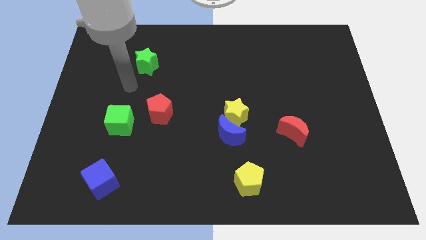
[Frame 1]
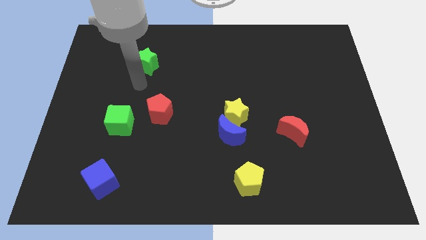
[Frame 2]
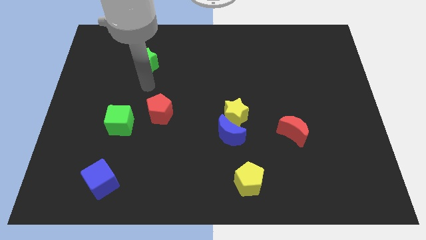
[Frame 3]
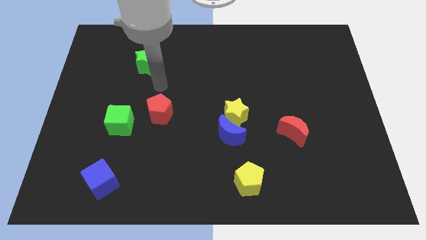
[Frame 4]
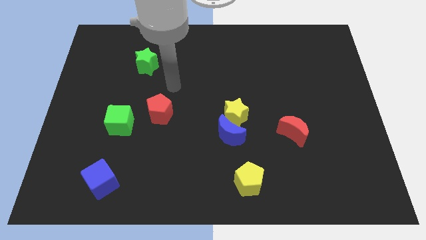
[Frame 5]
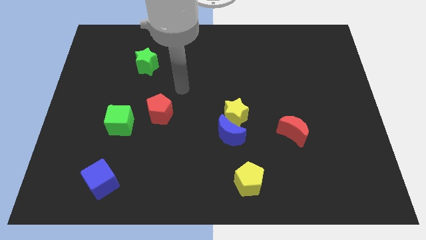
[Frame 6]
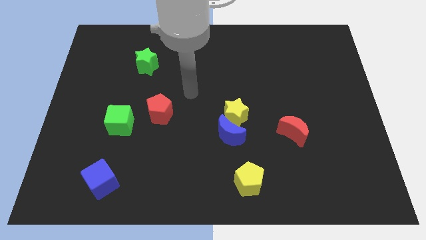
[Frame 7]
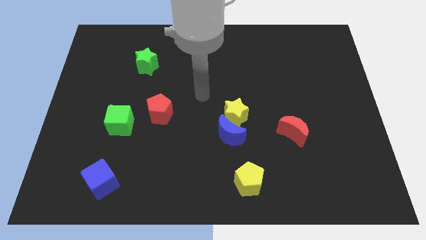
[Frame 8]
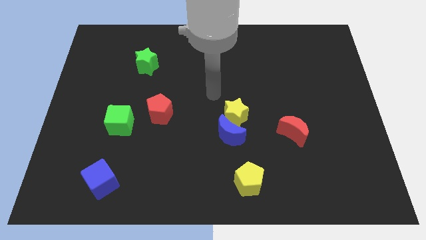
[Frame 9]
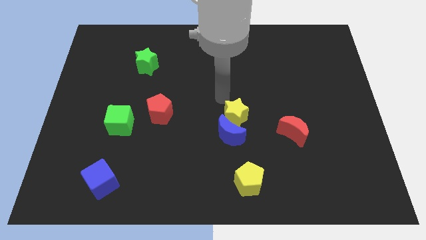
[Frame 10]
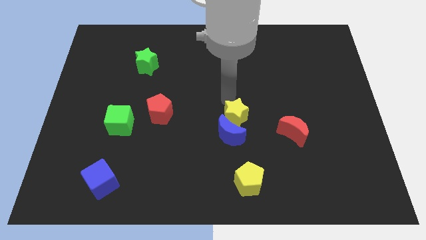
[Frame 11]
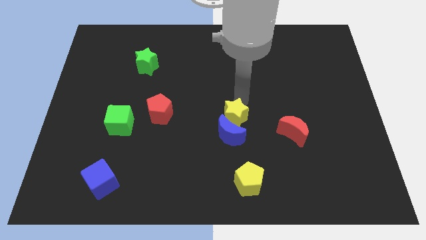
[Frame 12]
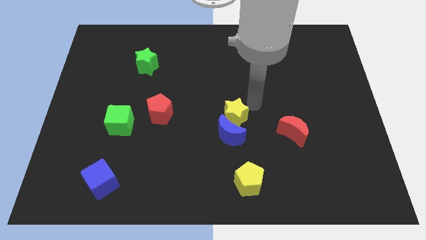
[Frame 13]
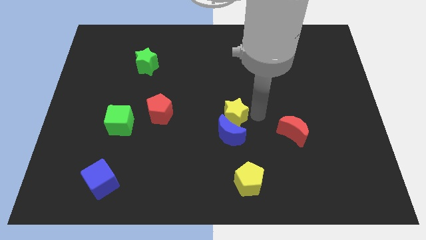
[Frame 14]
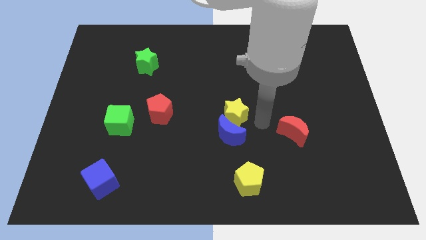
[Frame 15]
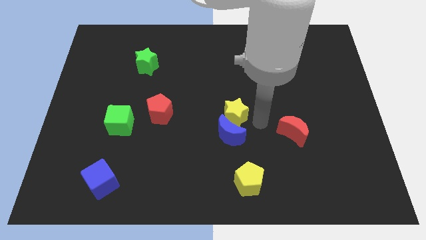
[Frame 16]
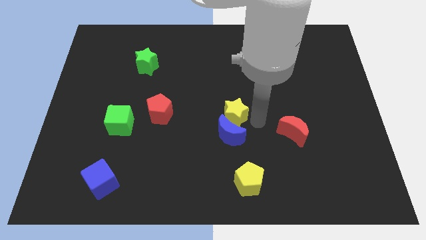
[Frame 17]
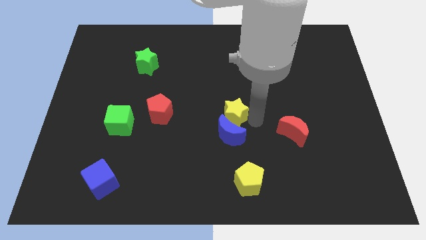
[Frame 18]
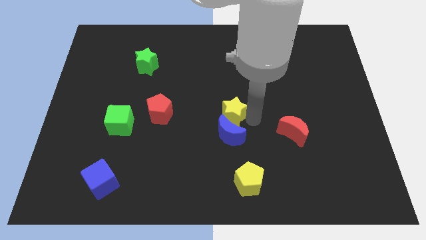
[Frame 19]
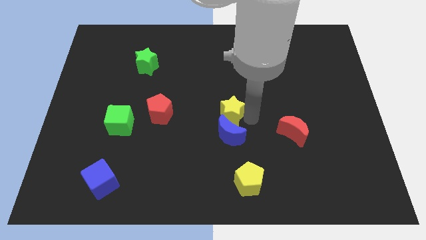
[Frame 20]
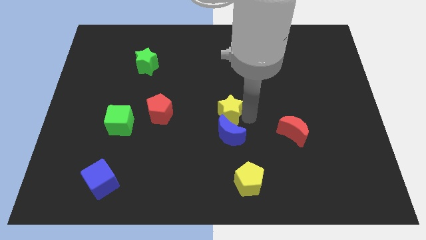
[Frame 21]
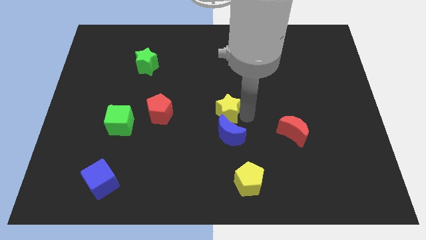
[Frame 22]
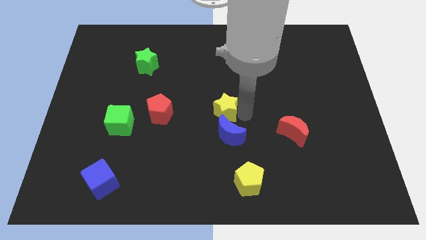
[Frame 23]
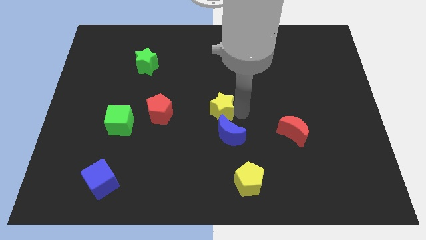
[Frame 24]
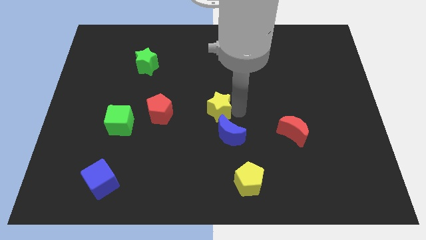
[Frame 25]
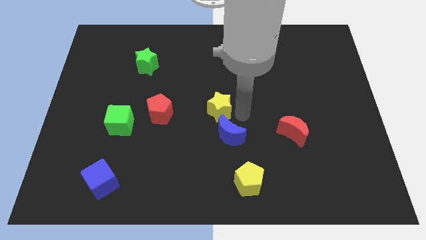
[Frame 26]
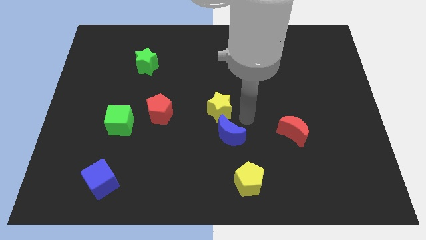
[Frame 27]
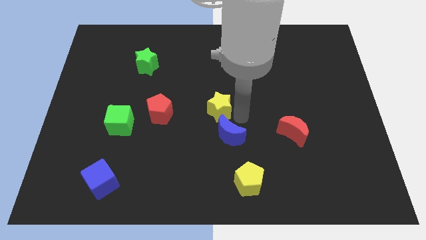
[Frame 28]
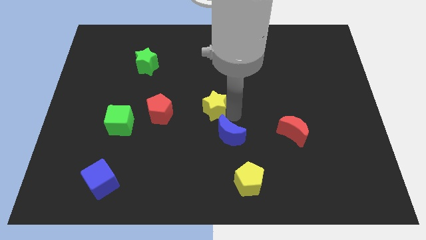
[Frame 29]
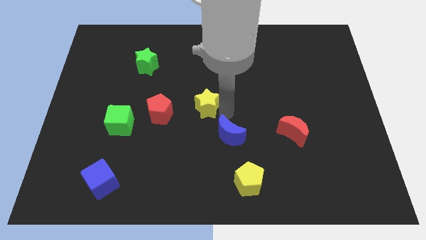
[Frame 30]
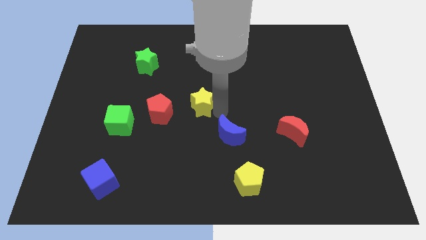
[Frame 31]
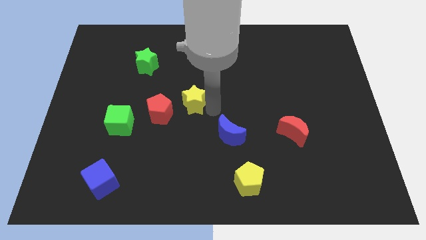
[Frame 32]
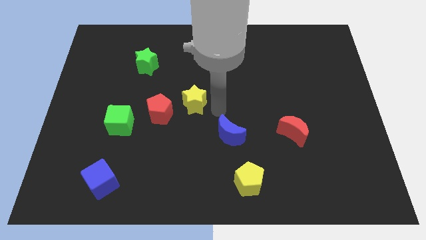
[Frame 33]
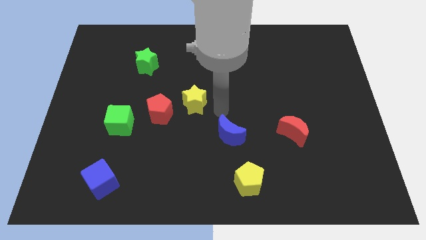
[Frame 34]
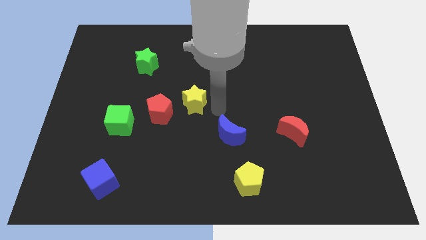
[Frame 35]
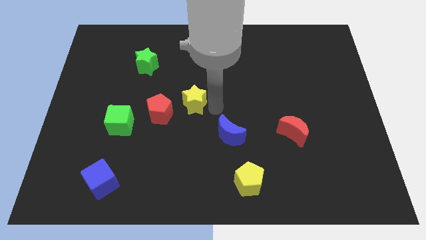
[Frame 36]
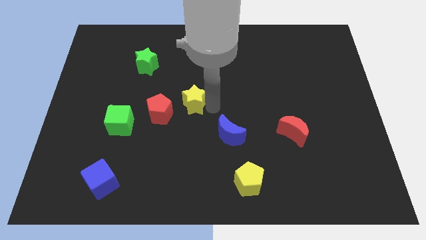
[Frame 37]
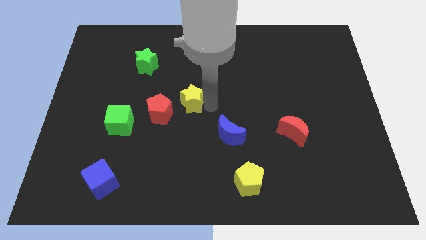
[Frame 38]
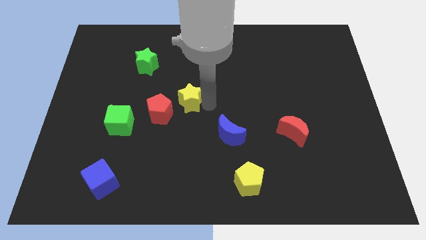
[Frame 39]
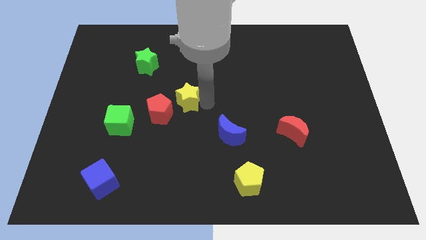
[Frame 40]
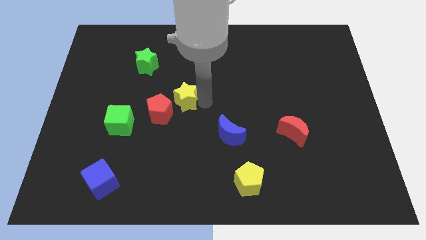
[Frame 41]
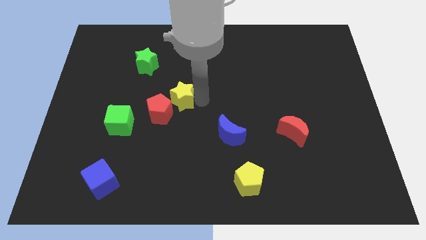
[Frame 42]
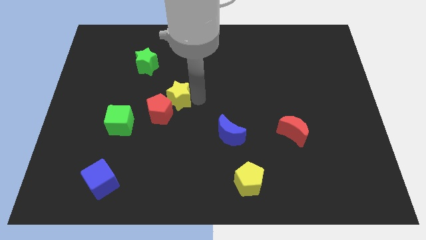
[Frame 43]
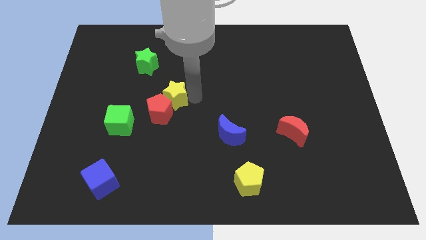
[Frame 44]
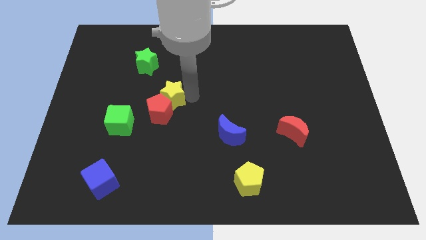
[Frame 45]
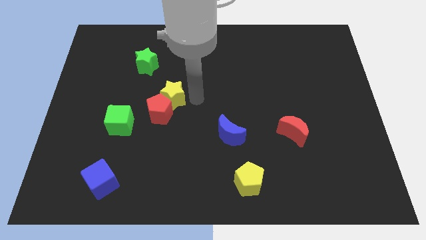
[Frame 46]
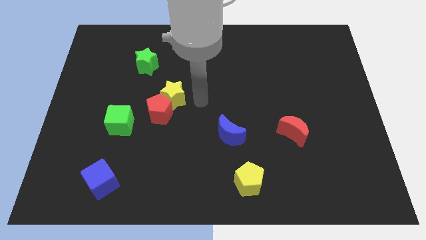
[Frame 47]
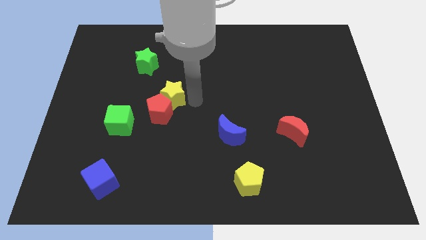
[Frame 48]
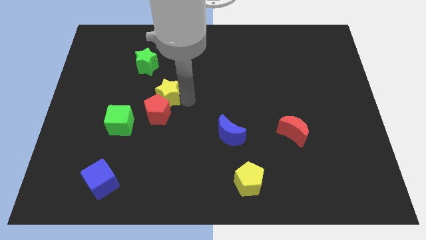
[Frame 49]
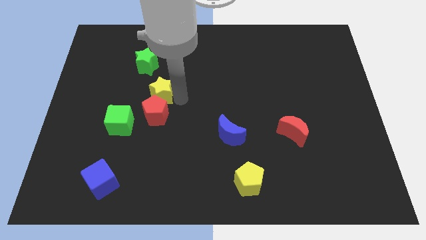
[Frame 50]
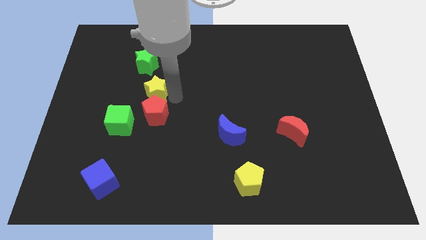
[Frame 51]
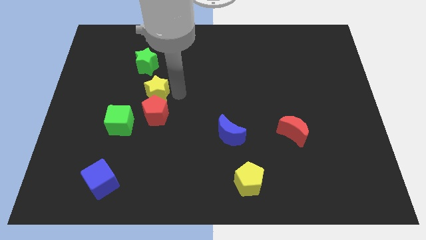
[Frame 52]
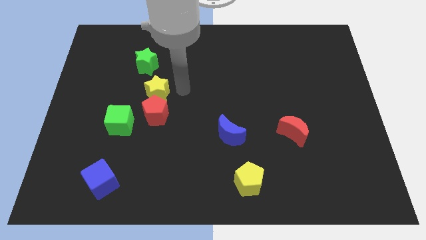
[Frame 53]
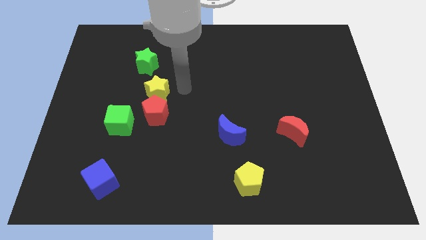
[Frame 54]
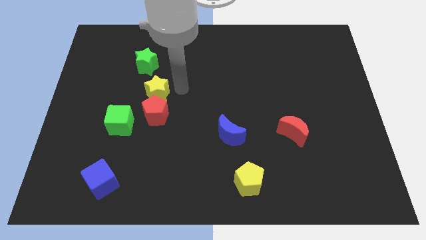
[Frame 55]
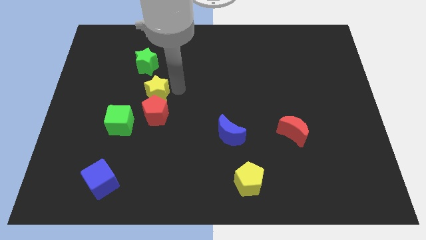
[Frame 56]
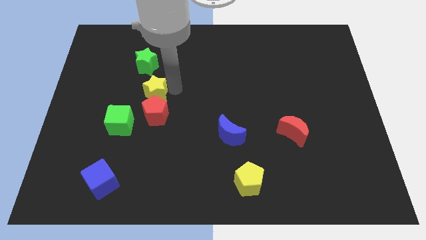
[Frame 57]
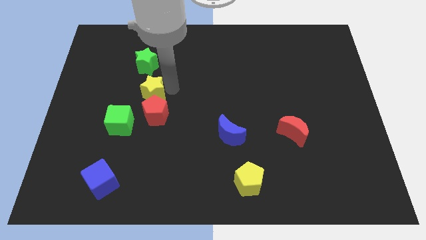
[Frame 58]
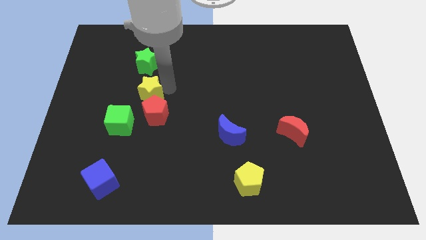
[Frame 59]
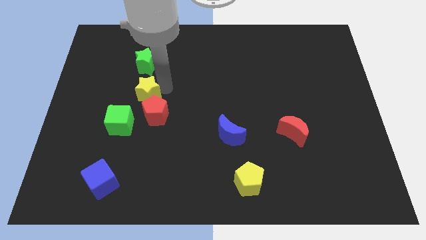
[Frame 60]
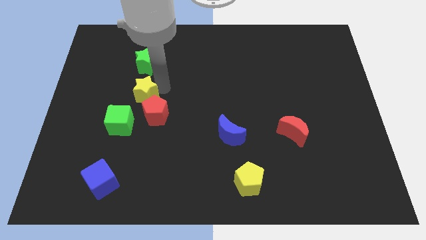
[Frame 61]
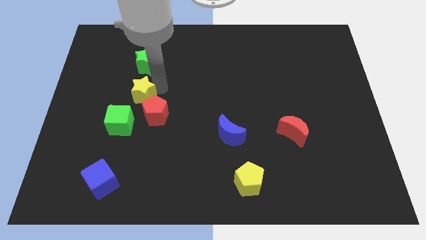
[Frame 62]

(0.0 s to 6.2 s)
move the yellow star left

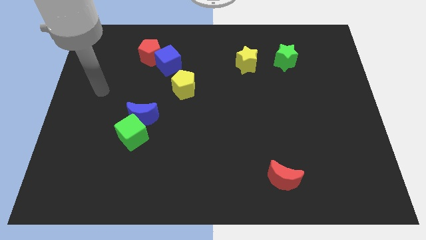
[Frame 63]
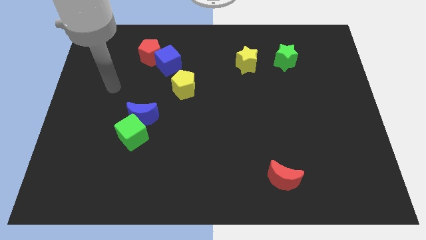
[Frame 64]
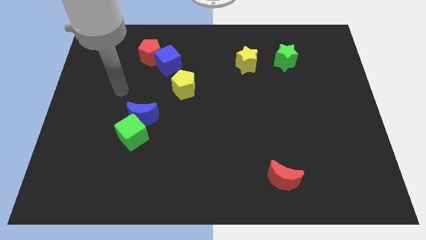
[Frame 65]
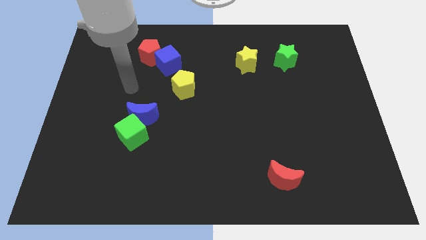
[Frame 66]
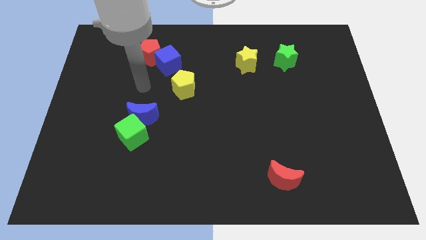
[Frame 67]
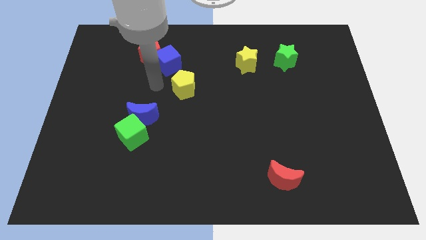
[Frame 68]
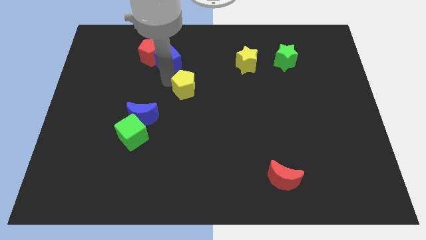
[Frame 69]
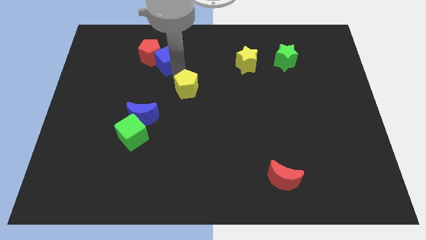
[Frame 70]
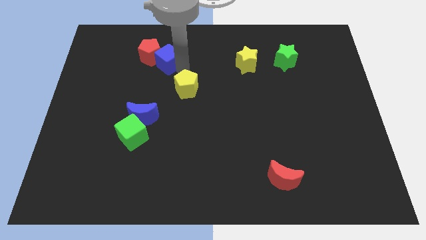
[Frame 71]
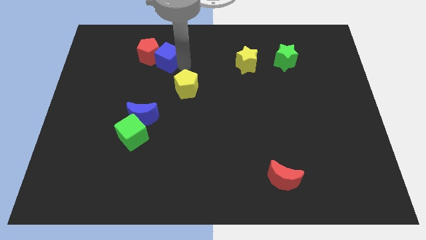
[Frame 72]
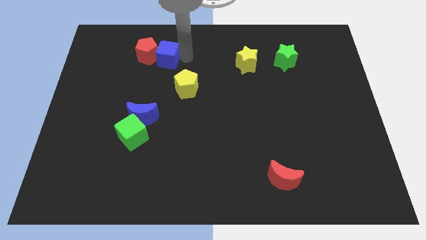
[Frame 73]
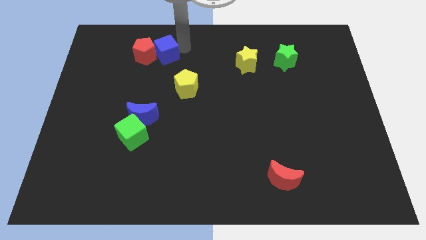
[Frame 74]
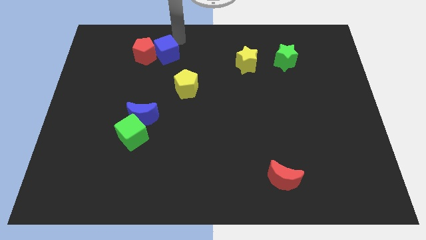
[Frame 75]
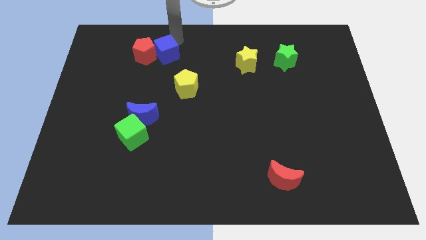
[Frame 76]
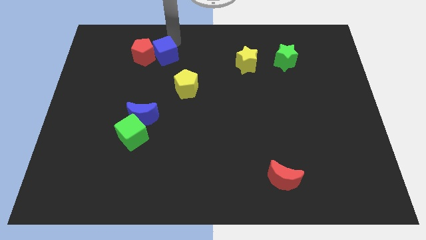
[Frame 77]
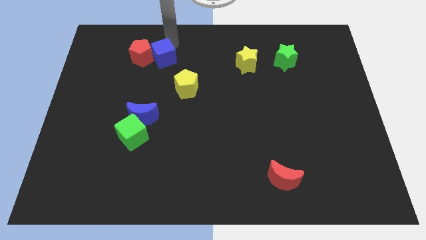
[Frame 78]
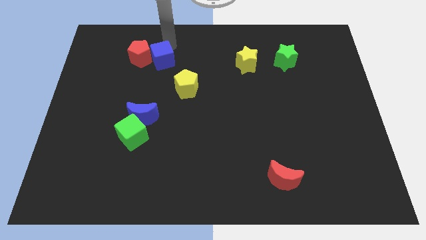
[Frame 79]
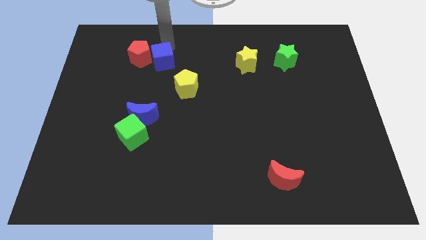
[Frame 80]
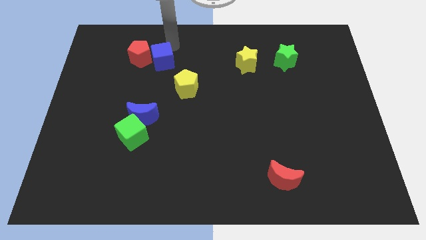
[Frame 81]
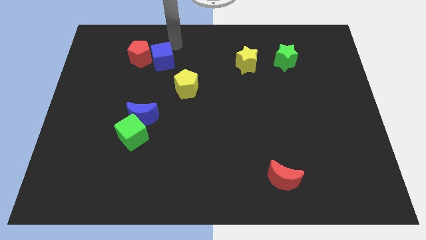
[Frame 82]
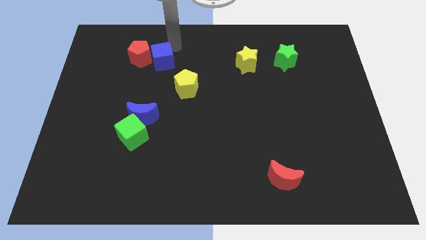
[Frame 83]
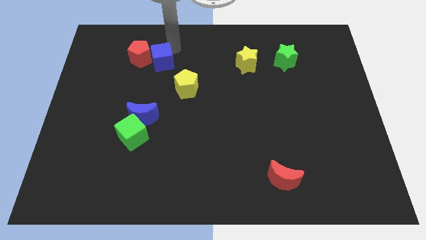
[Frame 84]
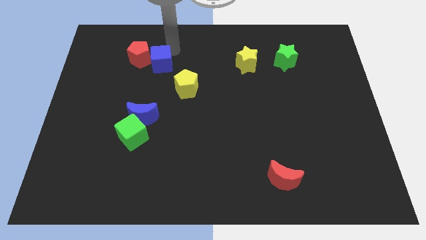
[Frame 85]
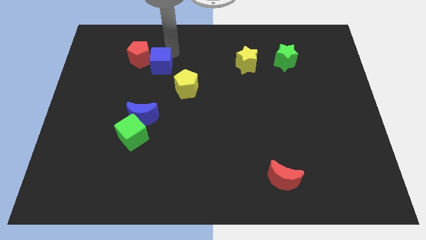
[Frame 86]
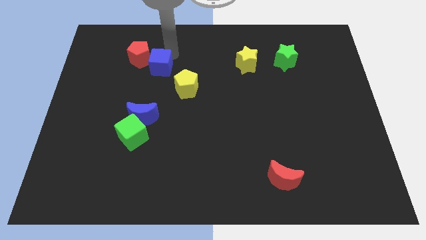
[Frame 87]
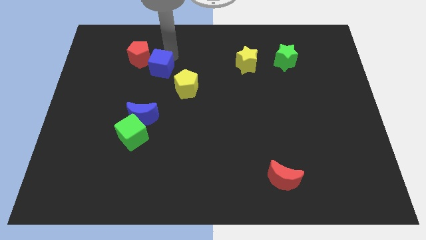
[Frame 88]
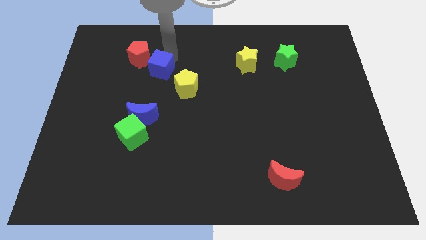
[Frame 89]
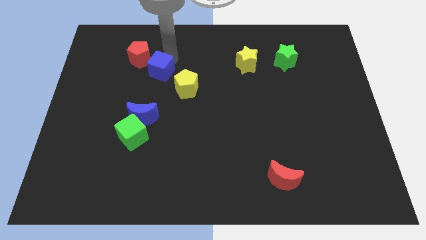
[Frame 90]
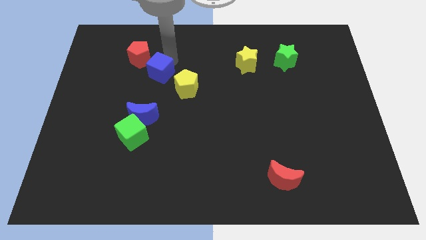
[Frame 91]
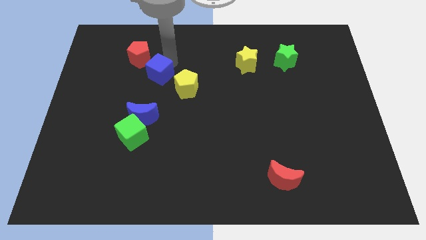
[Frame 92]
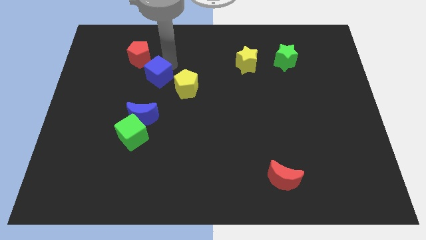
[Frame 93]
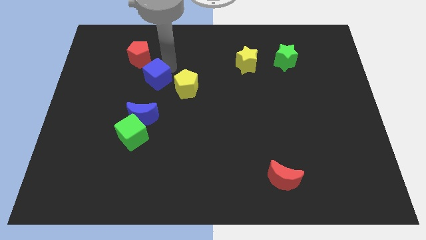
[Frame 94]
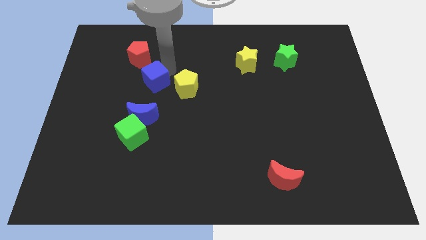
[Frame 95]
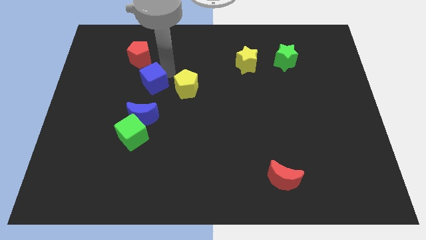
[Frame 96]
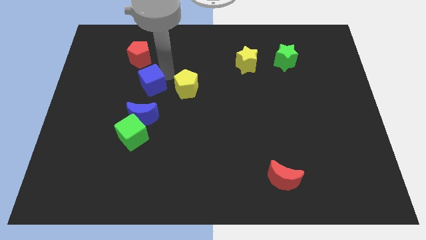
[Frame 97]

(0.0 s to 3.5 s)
slightly push the blue cube down and then to the left
